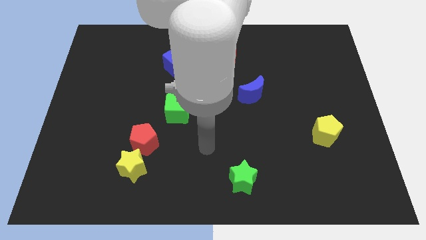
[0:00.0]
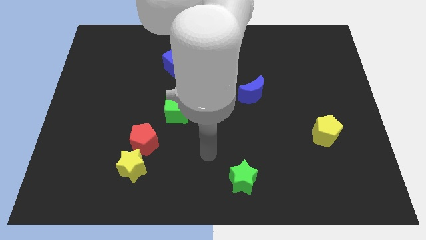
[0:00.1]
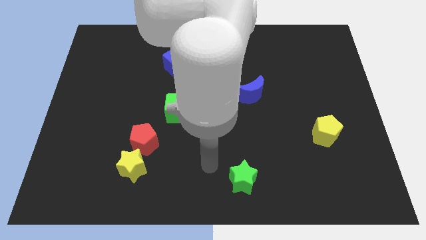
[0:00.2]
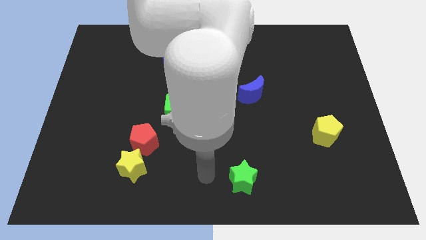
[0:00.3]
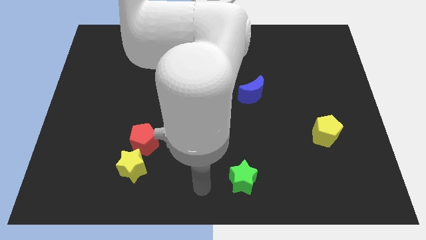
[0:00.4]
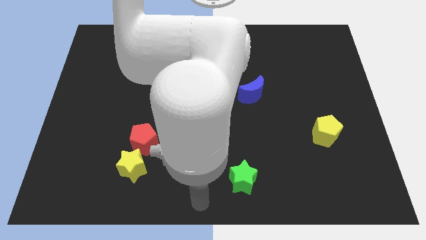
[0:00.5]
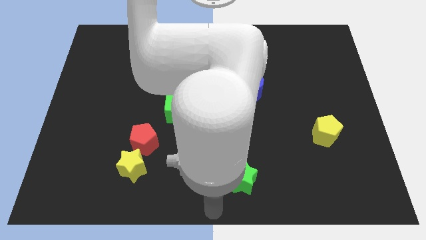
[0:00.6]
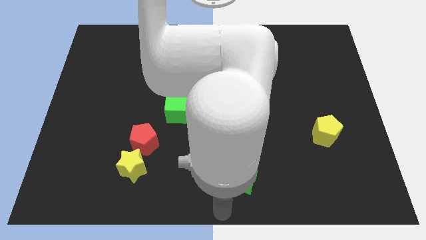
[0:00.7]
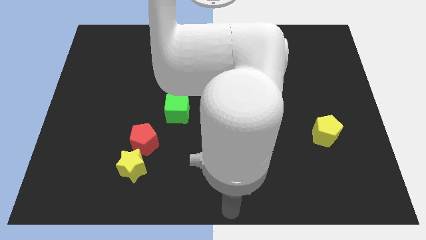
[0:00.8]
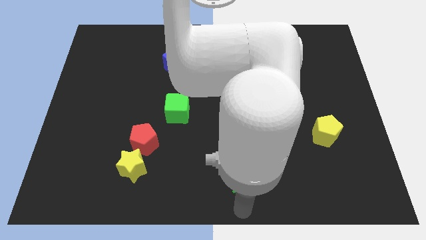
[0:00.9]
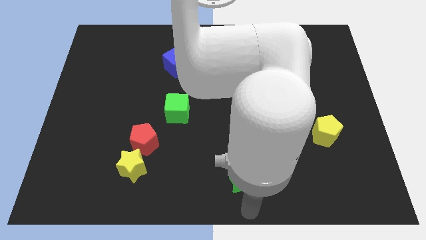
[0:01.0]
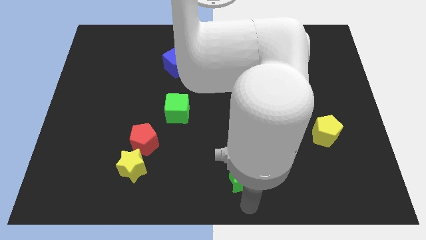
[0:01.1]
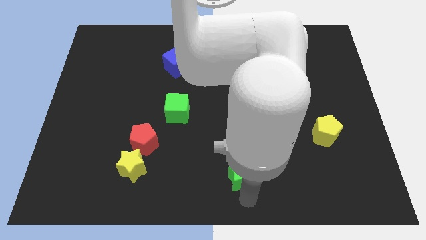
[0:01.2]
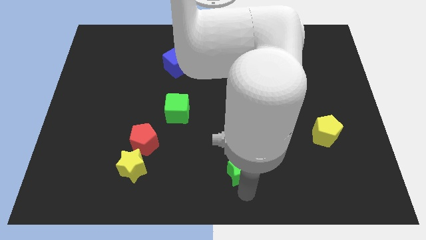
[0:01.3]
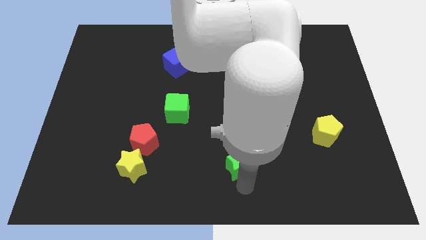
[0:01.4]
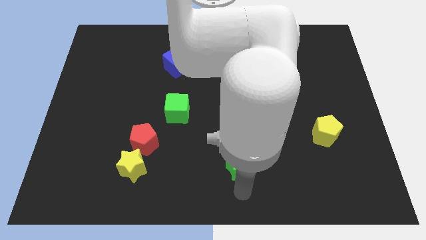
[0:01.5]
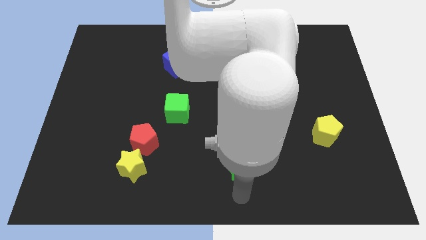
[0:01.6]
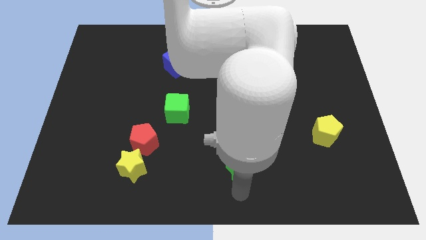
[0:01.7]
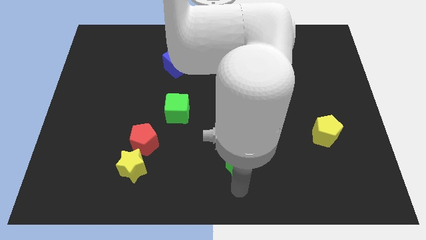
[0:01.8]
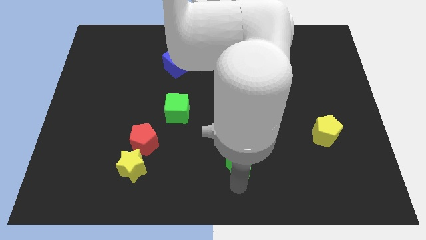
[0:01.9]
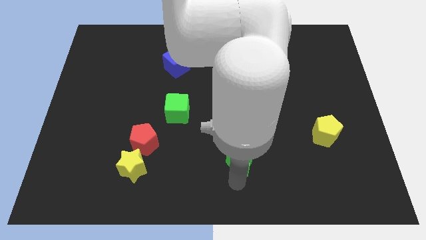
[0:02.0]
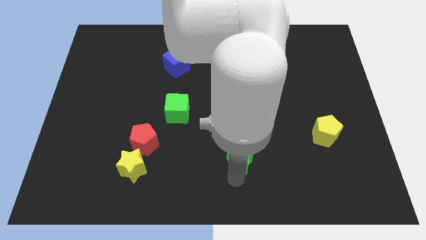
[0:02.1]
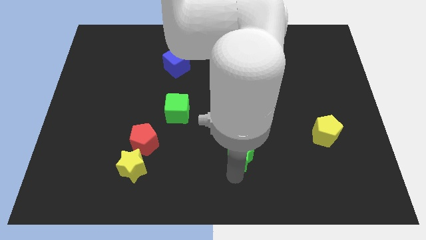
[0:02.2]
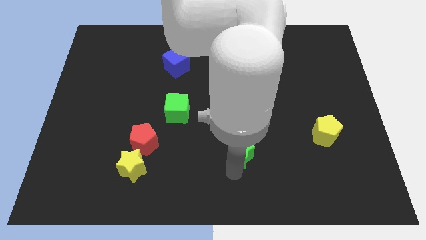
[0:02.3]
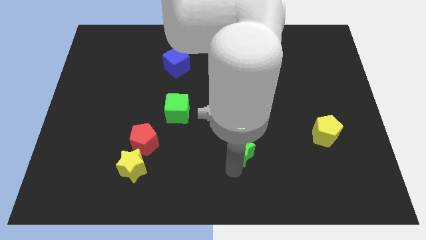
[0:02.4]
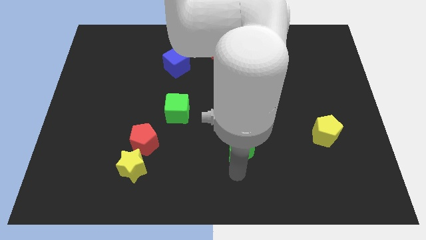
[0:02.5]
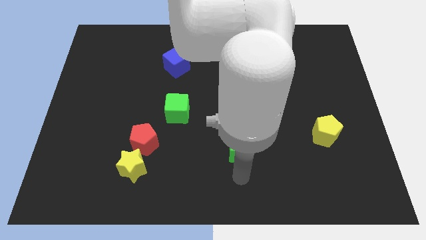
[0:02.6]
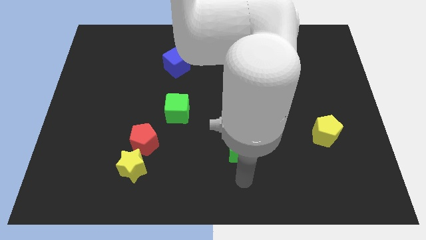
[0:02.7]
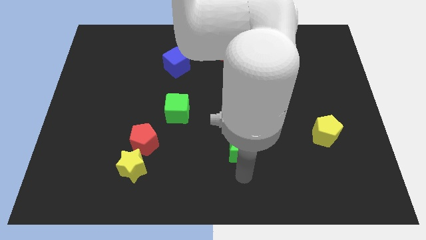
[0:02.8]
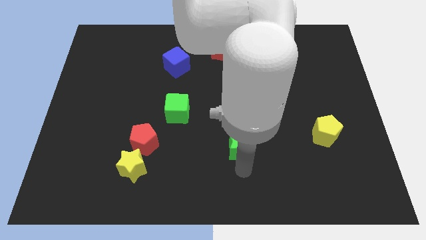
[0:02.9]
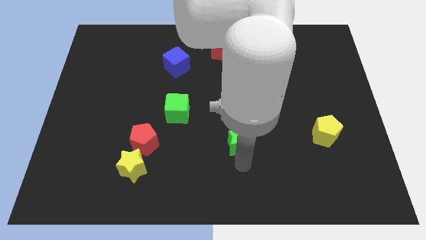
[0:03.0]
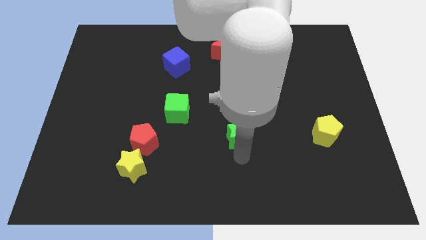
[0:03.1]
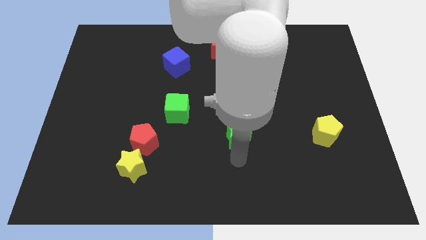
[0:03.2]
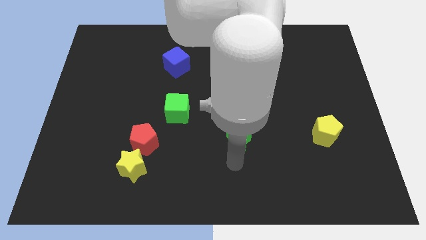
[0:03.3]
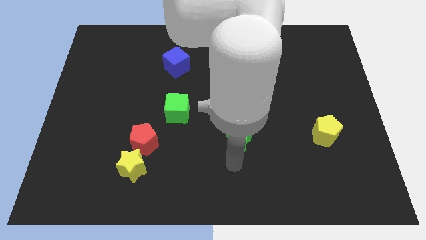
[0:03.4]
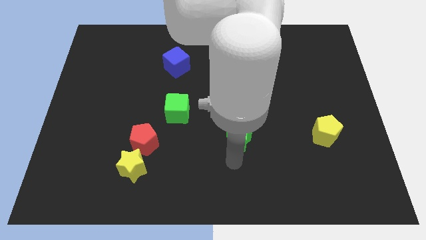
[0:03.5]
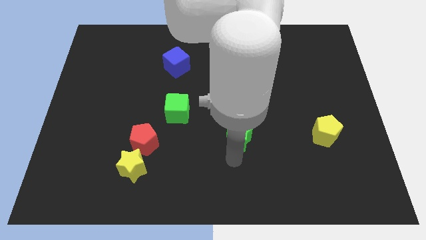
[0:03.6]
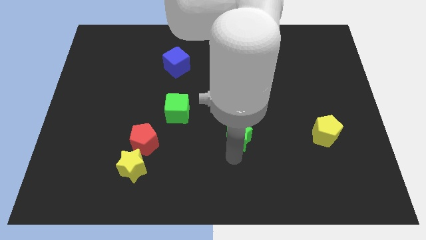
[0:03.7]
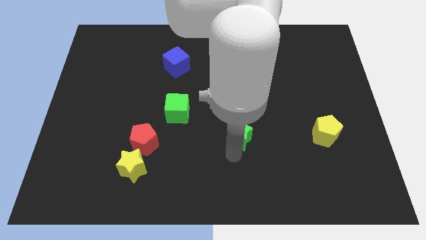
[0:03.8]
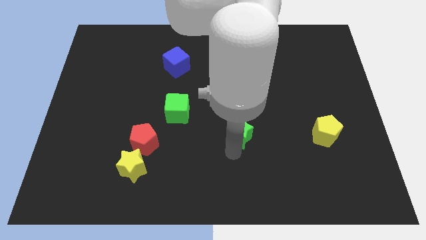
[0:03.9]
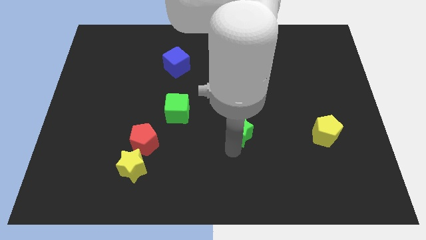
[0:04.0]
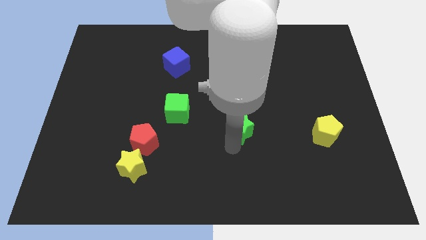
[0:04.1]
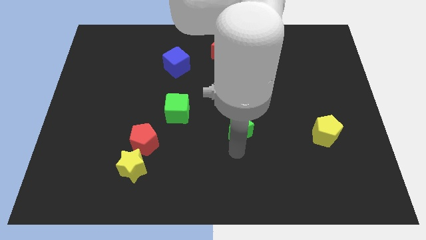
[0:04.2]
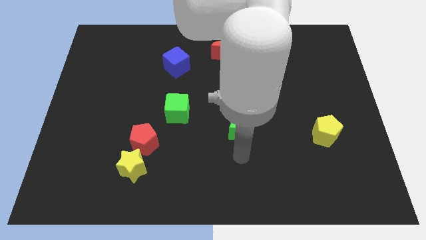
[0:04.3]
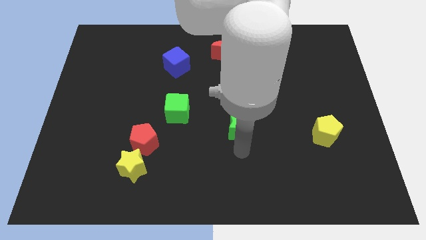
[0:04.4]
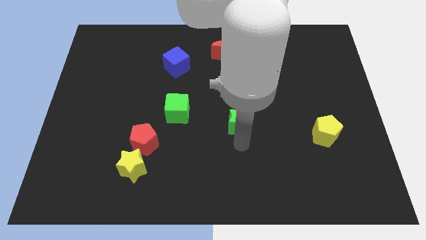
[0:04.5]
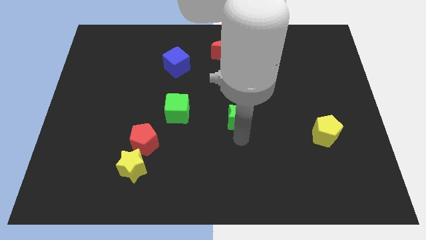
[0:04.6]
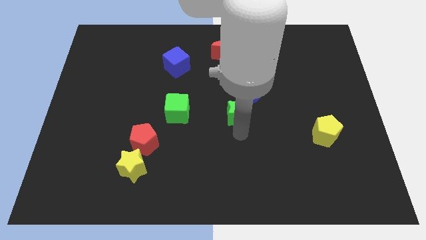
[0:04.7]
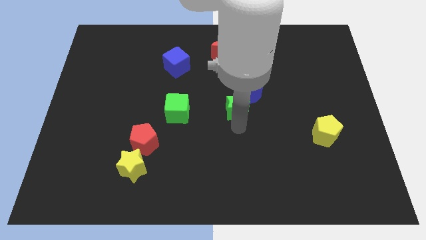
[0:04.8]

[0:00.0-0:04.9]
put the green star to the blue moon

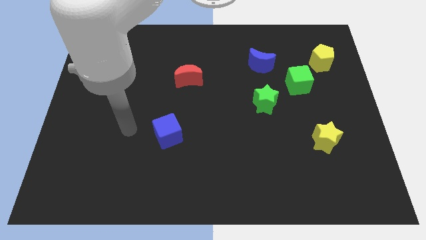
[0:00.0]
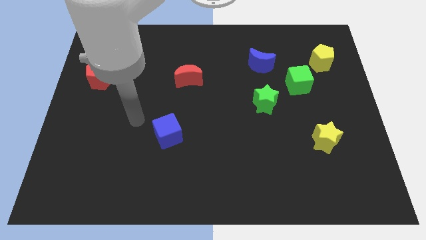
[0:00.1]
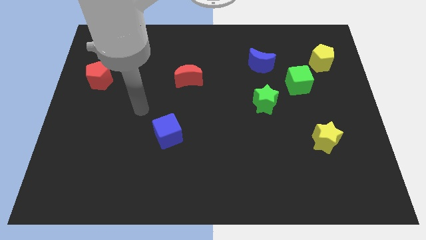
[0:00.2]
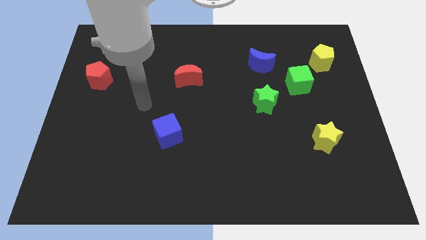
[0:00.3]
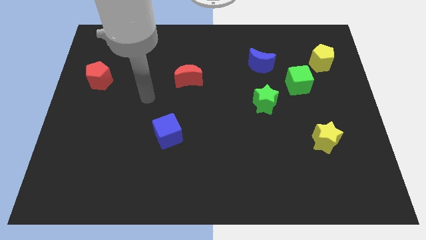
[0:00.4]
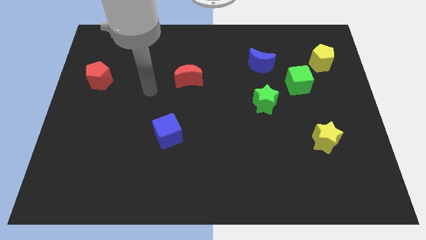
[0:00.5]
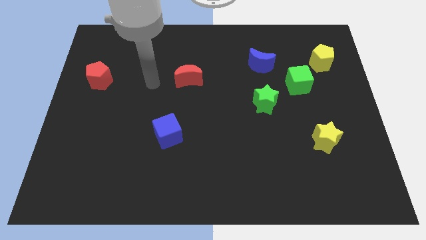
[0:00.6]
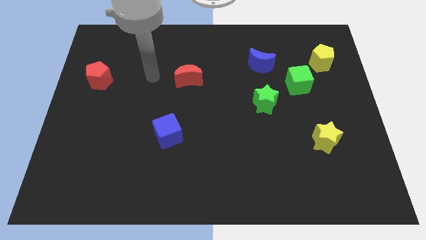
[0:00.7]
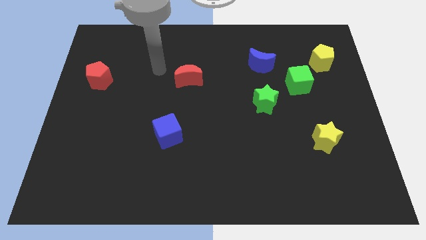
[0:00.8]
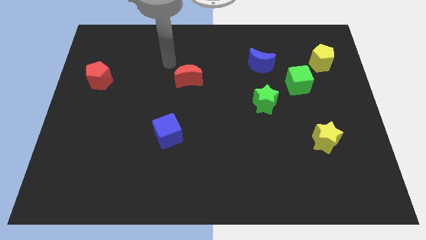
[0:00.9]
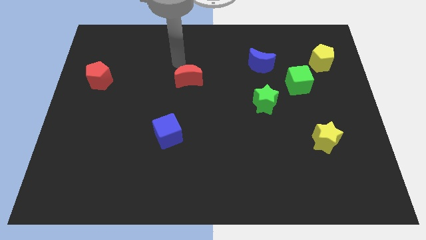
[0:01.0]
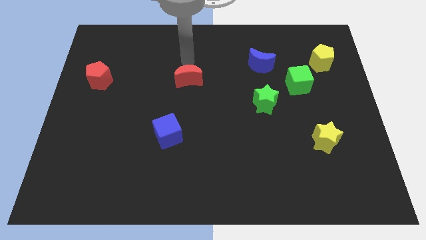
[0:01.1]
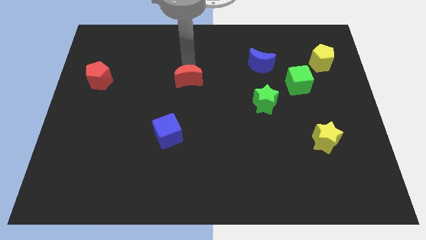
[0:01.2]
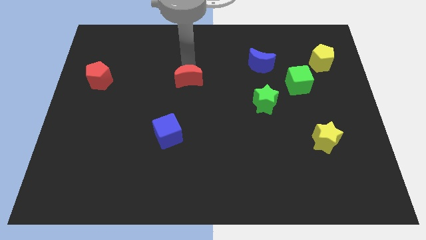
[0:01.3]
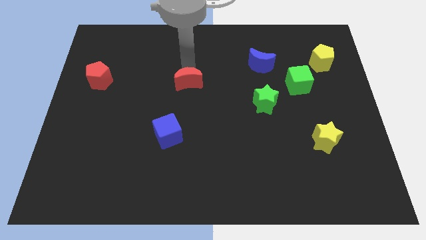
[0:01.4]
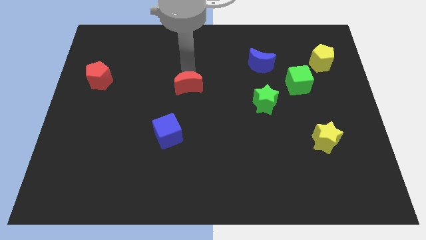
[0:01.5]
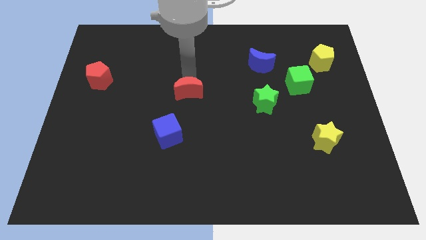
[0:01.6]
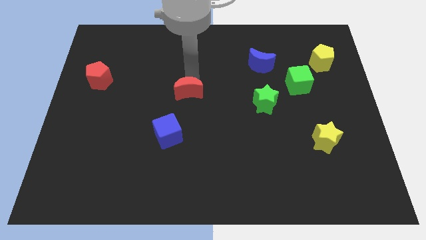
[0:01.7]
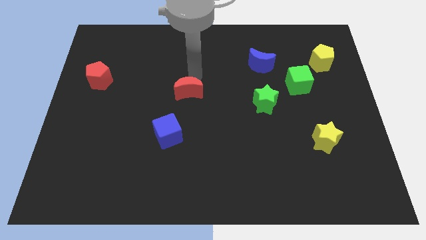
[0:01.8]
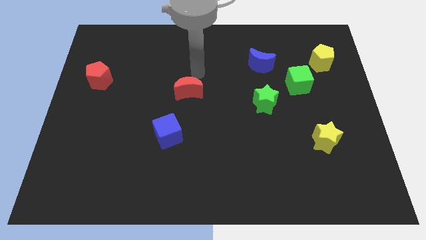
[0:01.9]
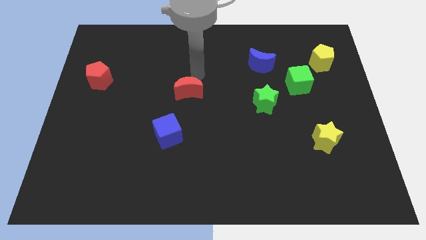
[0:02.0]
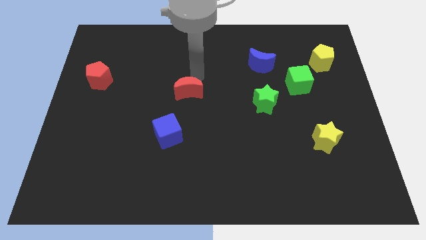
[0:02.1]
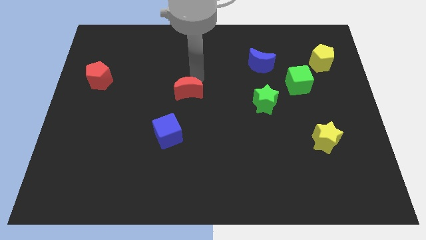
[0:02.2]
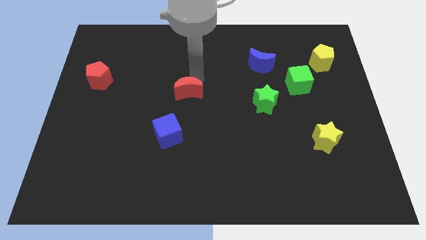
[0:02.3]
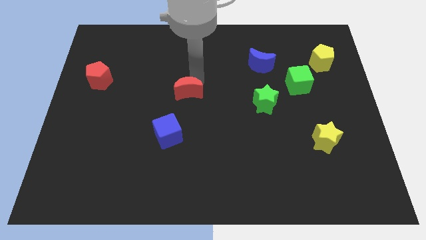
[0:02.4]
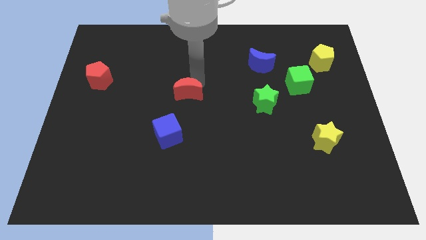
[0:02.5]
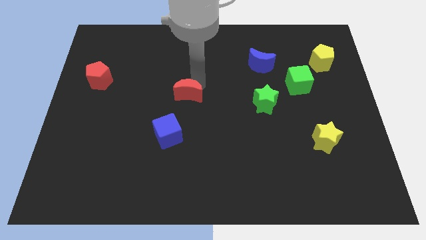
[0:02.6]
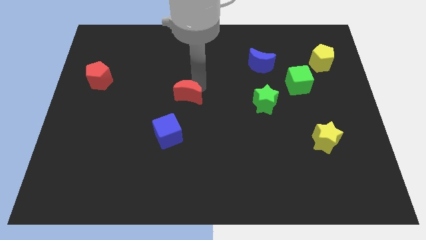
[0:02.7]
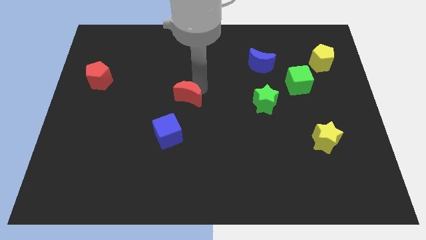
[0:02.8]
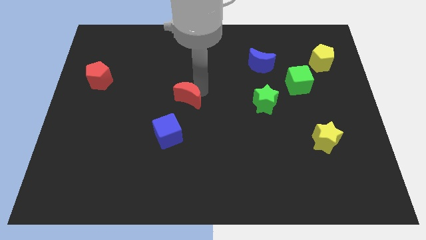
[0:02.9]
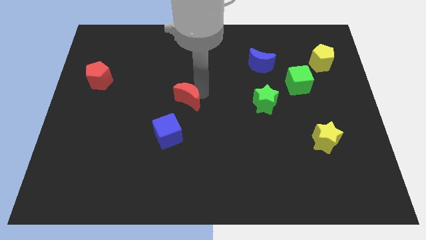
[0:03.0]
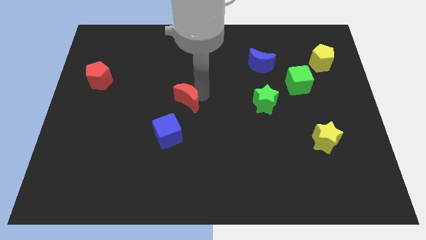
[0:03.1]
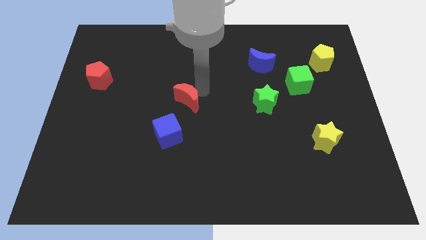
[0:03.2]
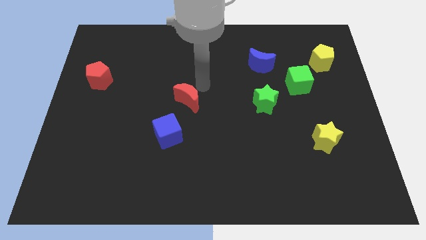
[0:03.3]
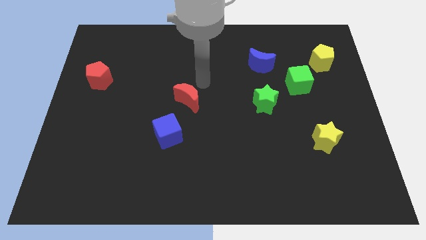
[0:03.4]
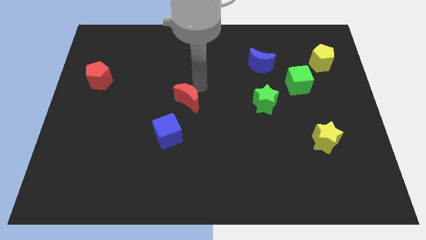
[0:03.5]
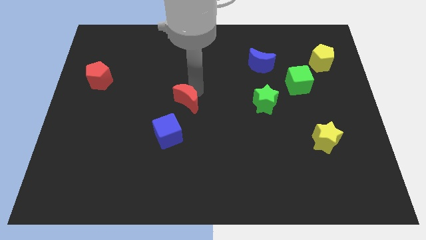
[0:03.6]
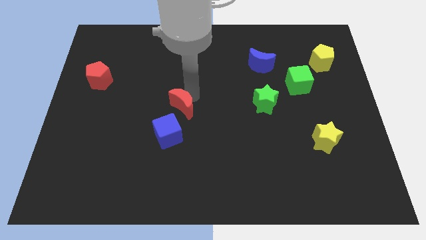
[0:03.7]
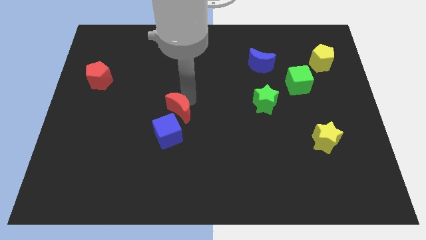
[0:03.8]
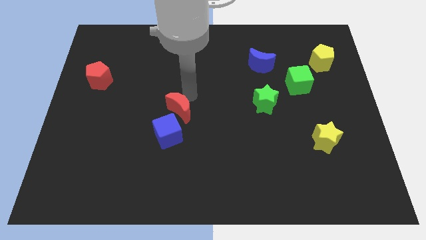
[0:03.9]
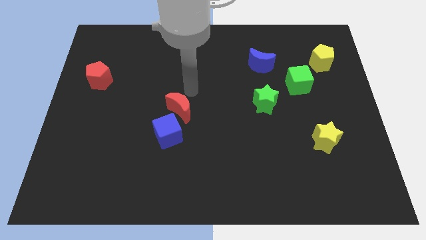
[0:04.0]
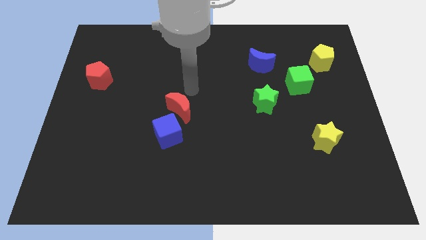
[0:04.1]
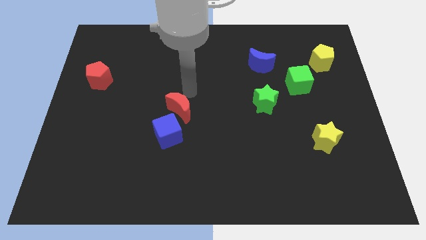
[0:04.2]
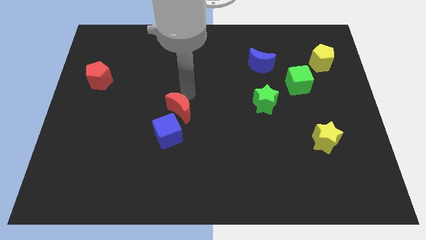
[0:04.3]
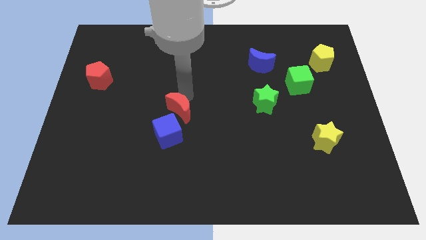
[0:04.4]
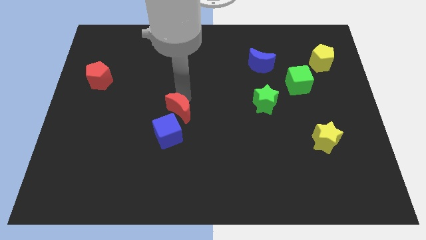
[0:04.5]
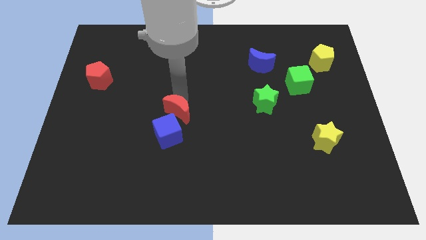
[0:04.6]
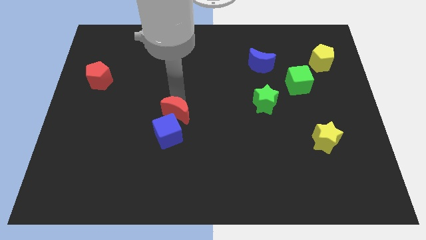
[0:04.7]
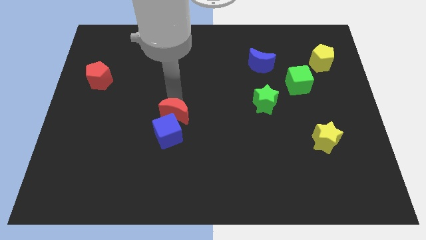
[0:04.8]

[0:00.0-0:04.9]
slide the red moon to the blue cube
